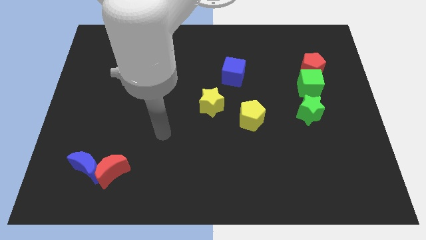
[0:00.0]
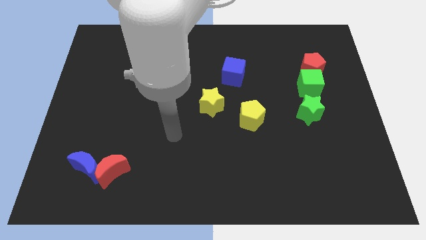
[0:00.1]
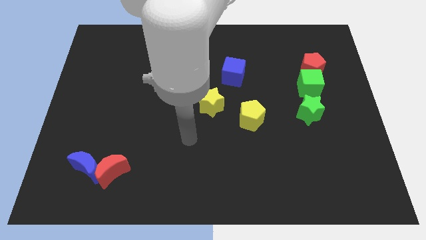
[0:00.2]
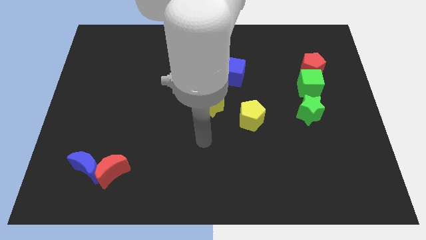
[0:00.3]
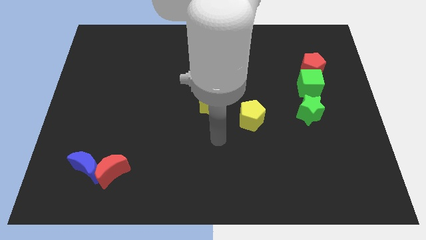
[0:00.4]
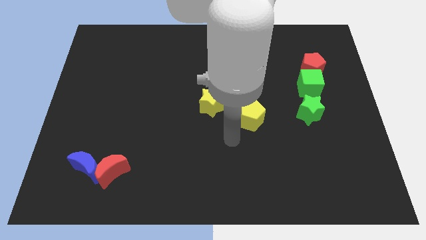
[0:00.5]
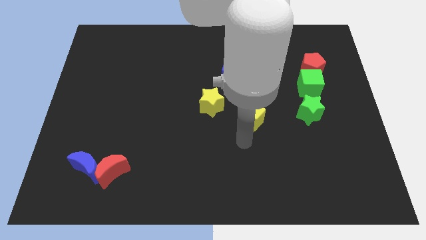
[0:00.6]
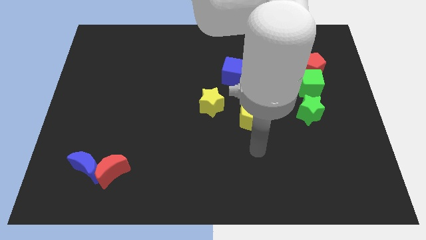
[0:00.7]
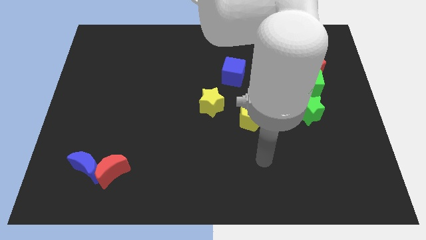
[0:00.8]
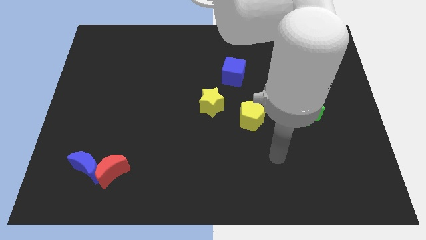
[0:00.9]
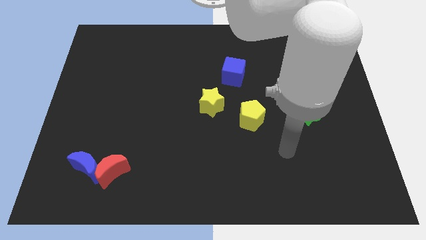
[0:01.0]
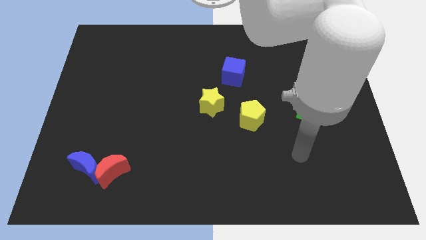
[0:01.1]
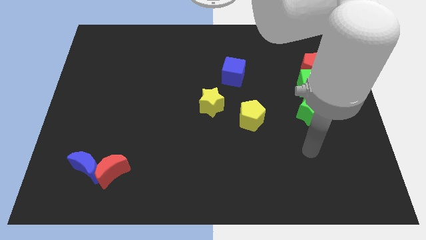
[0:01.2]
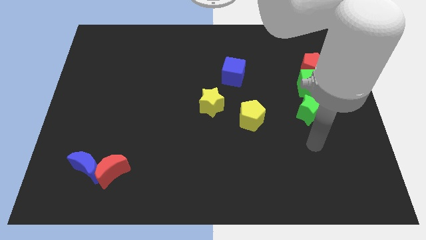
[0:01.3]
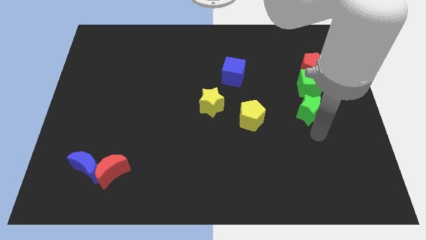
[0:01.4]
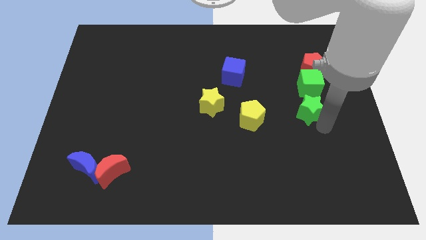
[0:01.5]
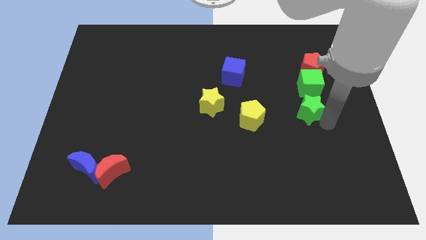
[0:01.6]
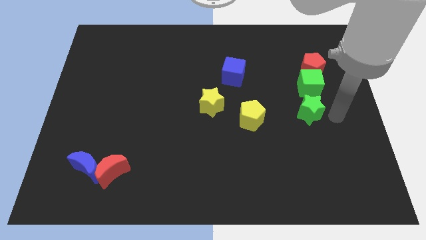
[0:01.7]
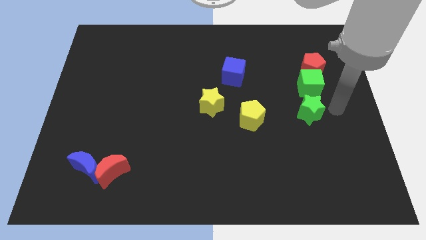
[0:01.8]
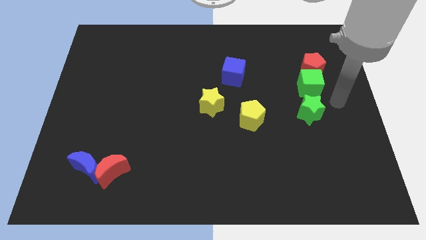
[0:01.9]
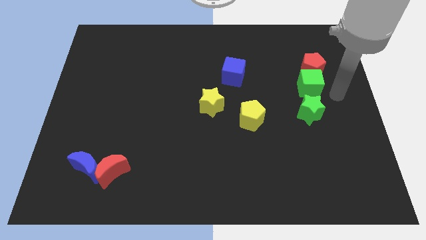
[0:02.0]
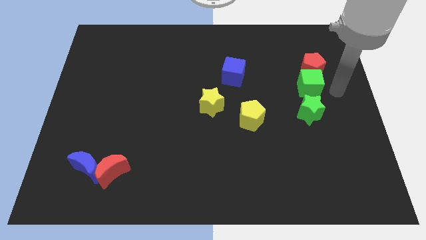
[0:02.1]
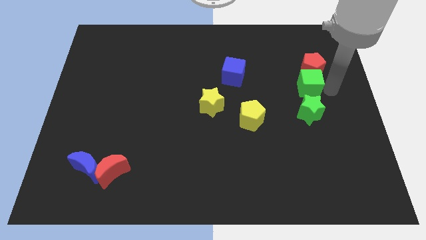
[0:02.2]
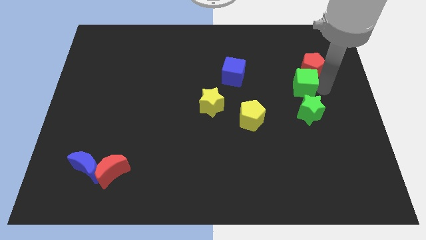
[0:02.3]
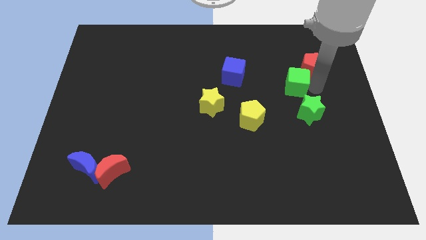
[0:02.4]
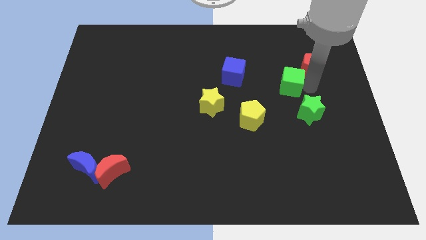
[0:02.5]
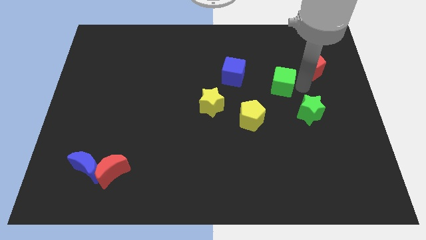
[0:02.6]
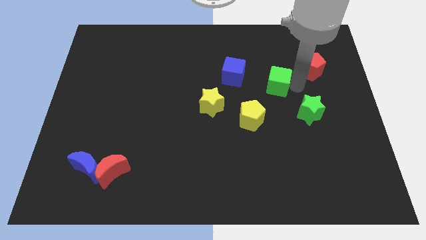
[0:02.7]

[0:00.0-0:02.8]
slide the green cube to the left somewhat

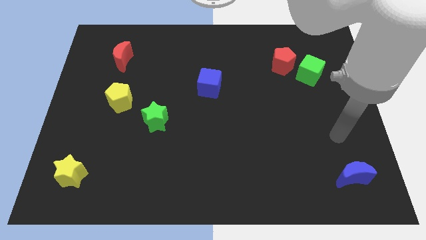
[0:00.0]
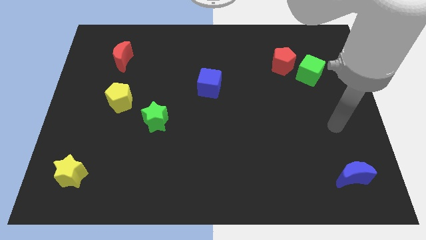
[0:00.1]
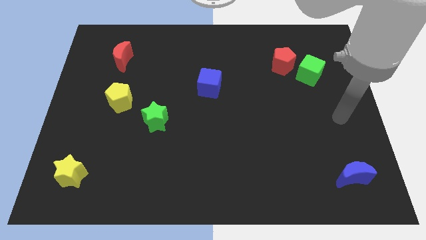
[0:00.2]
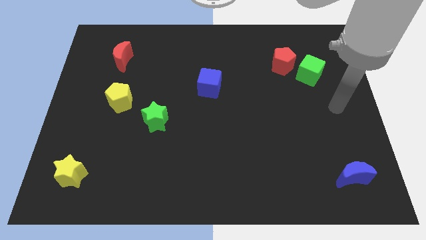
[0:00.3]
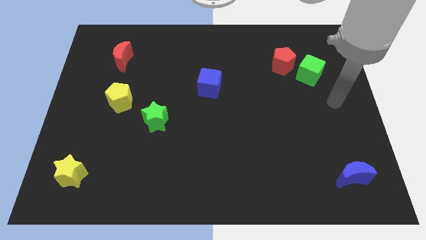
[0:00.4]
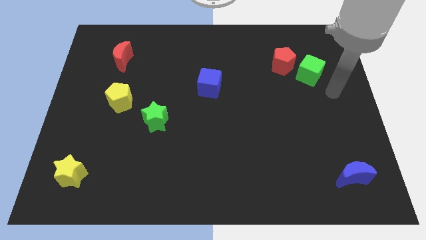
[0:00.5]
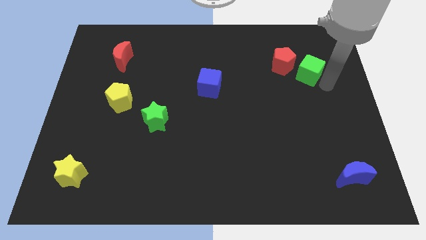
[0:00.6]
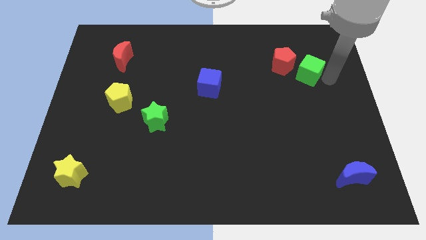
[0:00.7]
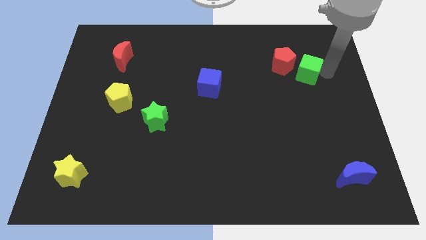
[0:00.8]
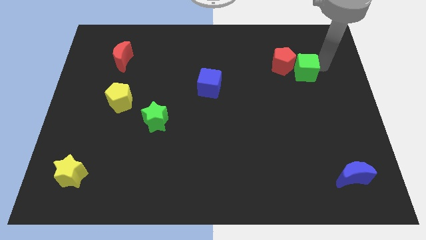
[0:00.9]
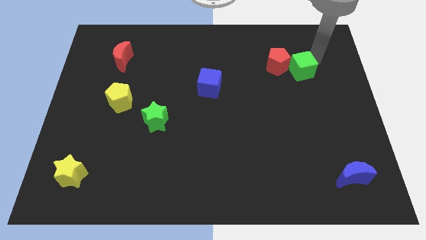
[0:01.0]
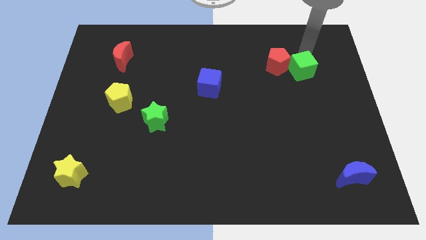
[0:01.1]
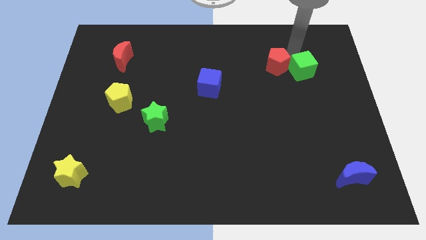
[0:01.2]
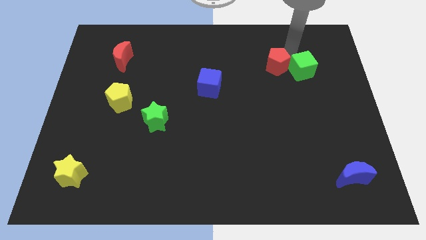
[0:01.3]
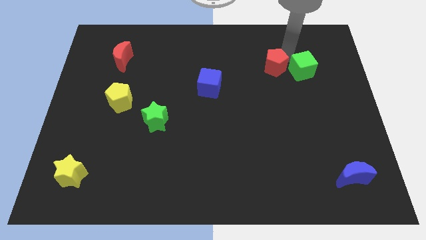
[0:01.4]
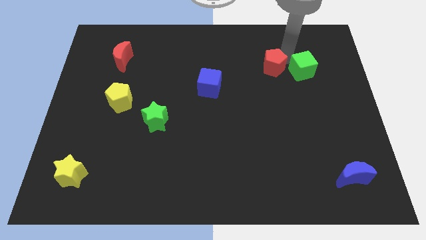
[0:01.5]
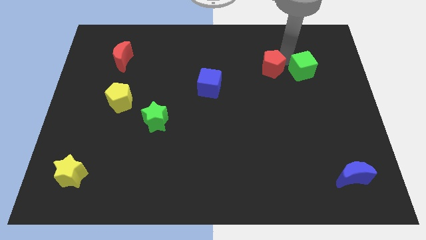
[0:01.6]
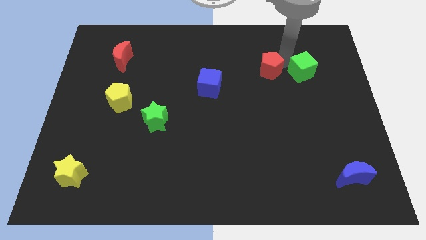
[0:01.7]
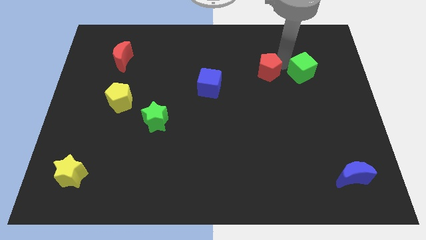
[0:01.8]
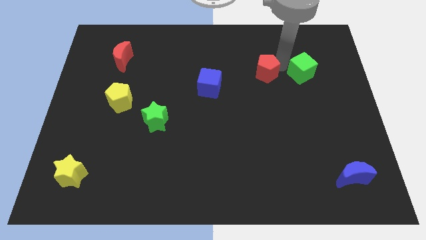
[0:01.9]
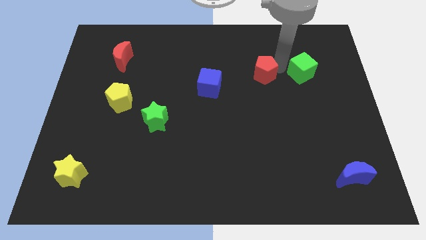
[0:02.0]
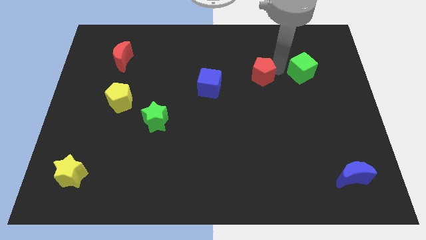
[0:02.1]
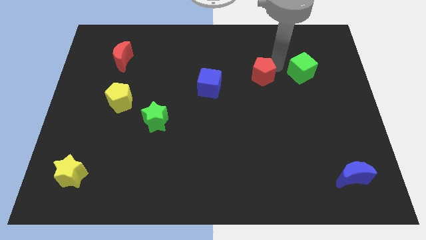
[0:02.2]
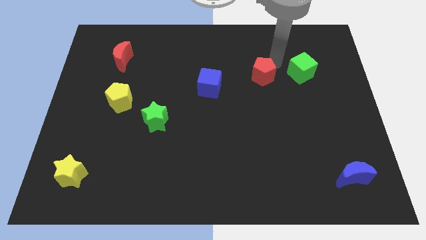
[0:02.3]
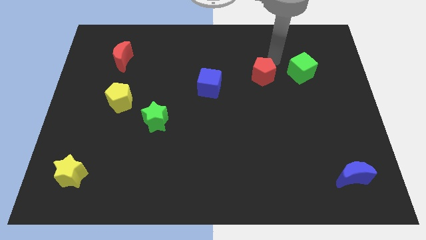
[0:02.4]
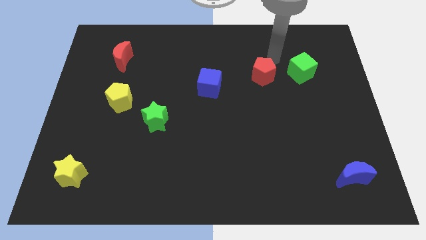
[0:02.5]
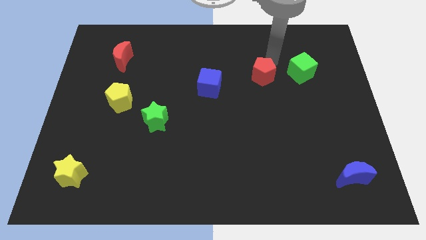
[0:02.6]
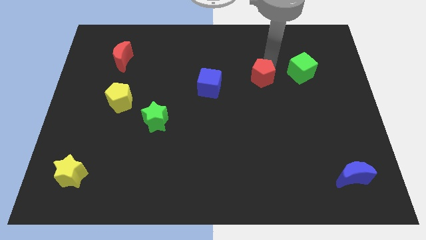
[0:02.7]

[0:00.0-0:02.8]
slide the red pentagon a bit downwards and then left

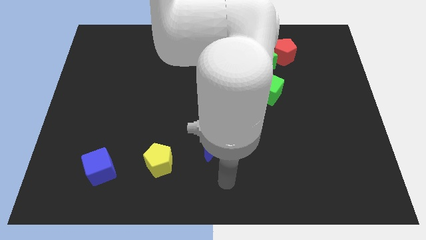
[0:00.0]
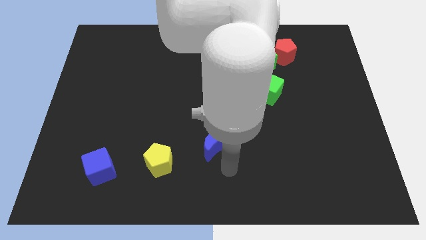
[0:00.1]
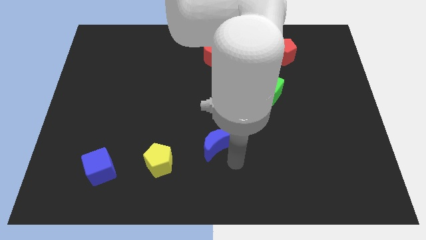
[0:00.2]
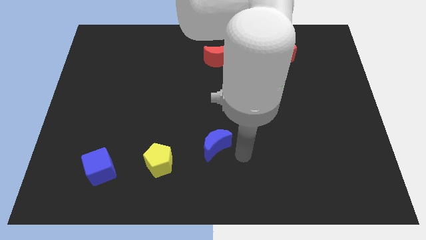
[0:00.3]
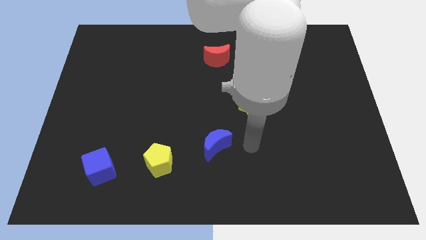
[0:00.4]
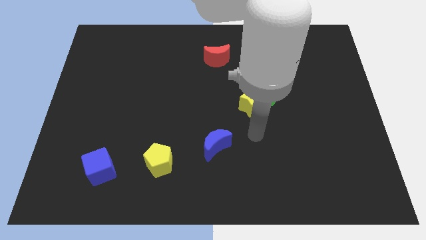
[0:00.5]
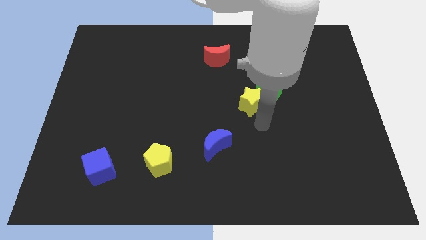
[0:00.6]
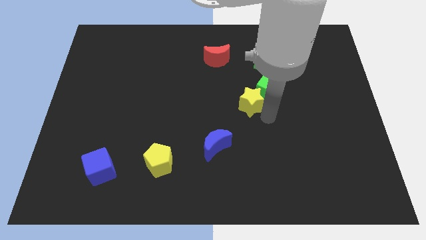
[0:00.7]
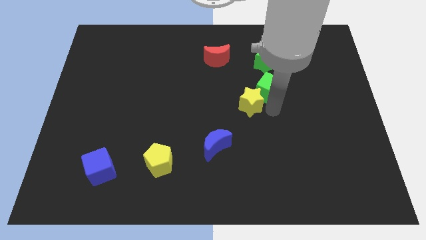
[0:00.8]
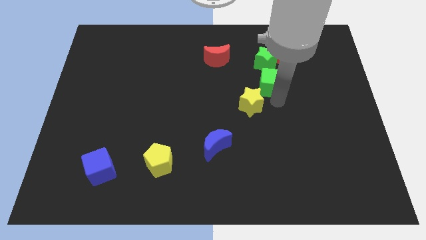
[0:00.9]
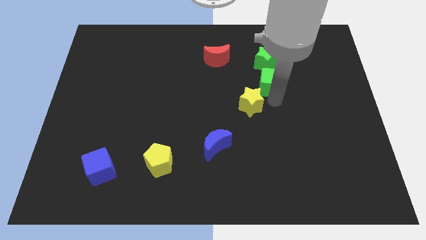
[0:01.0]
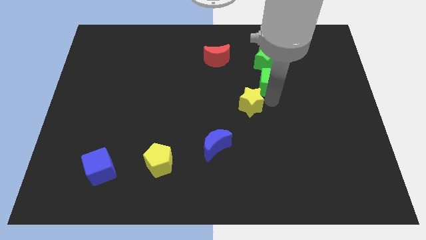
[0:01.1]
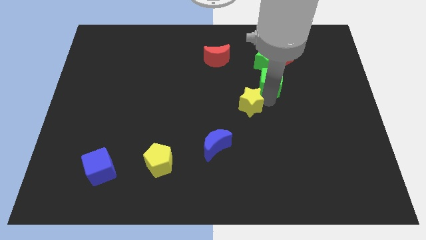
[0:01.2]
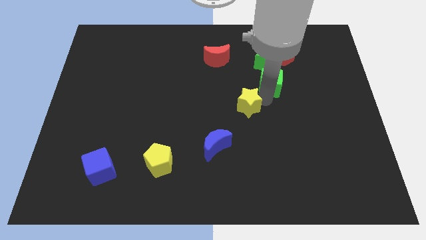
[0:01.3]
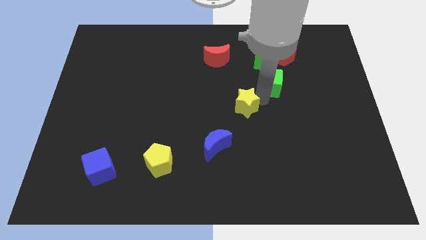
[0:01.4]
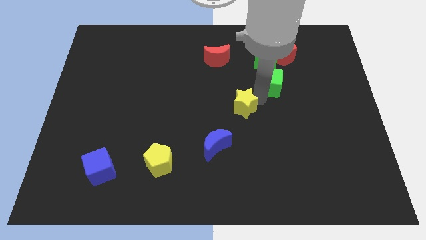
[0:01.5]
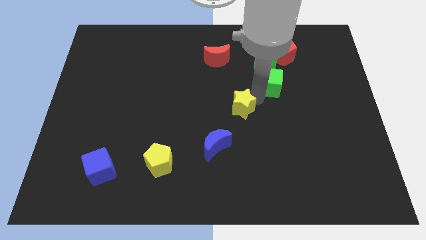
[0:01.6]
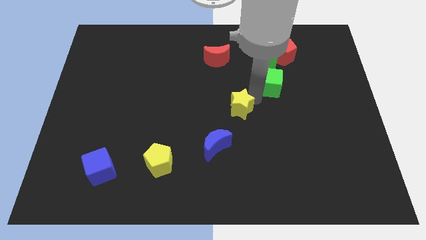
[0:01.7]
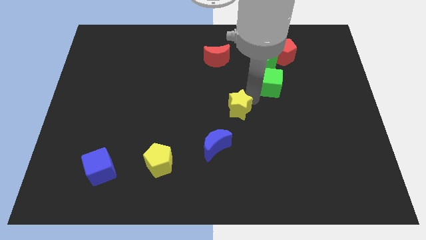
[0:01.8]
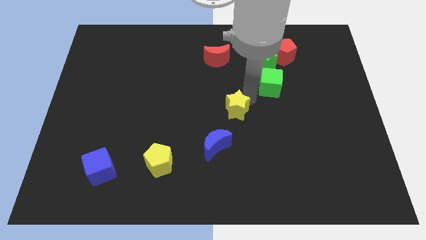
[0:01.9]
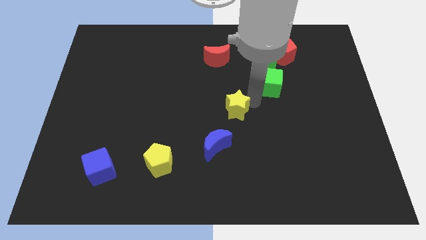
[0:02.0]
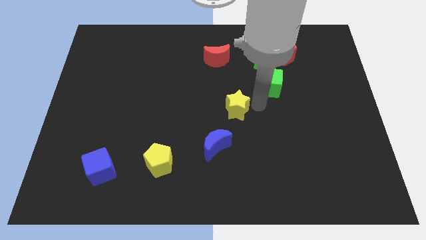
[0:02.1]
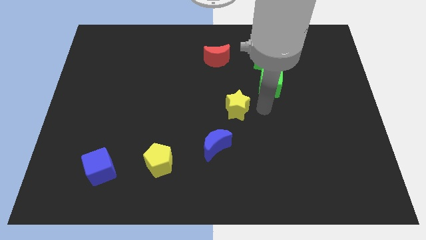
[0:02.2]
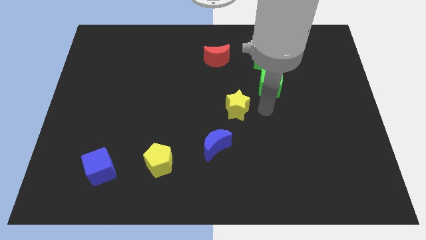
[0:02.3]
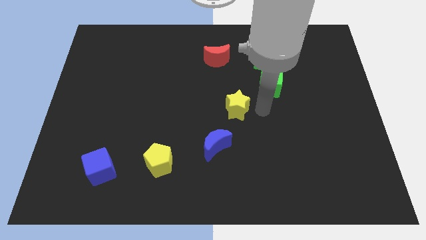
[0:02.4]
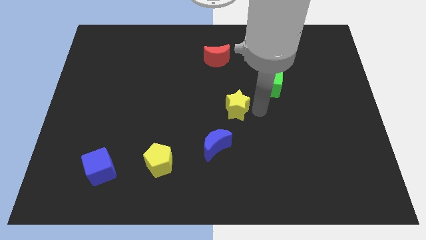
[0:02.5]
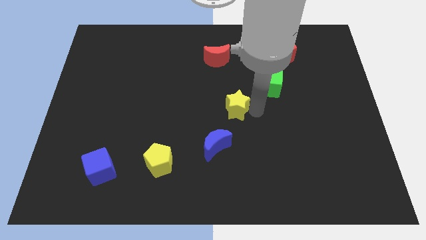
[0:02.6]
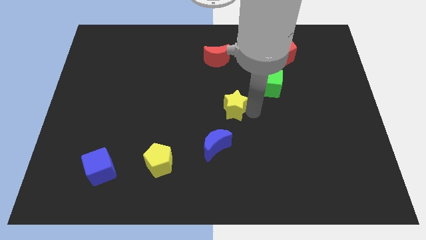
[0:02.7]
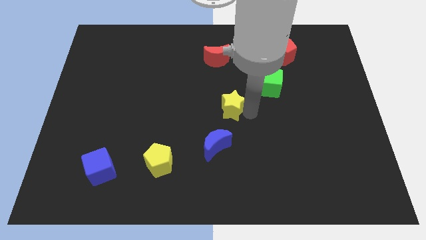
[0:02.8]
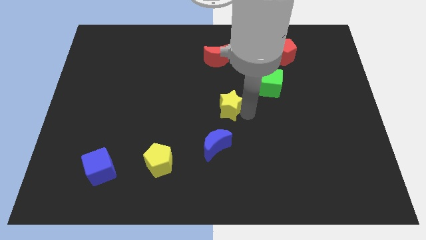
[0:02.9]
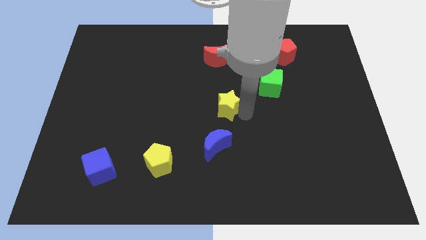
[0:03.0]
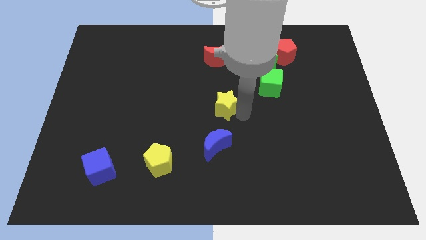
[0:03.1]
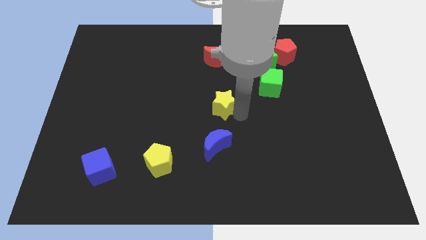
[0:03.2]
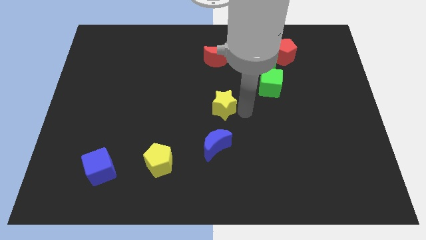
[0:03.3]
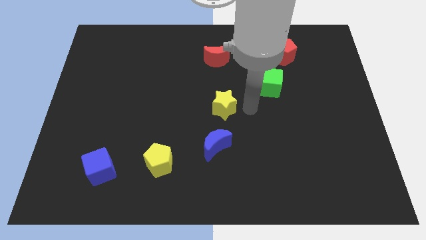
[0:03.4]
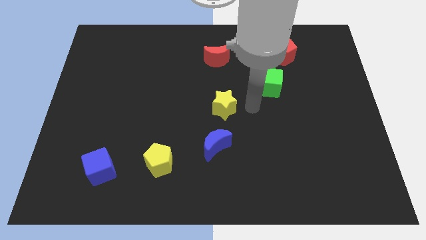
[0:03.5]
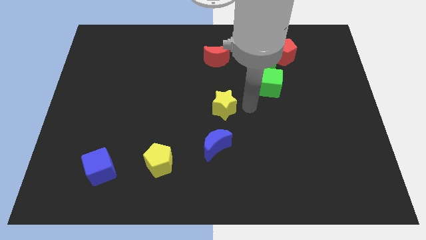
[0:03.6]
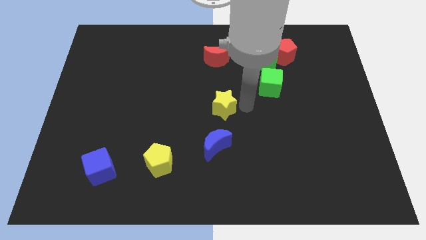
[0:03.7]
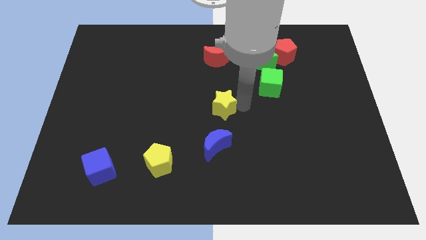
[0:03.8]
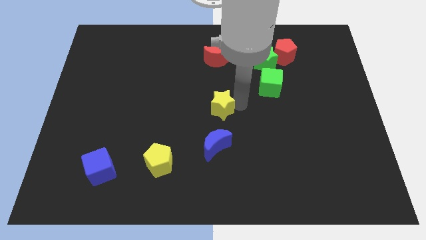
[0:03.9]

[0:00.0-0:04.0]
slide the yellow star to the left a little
